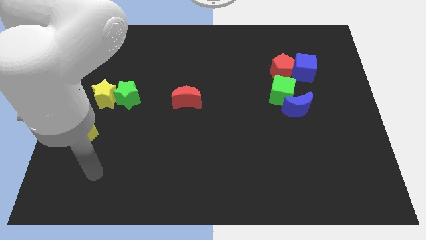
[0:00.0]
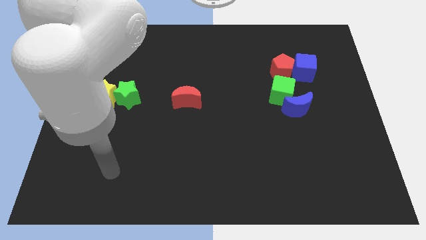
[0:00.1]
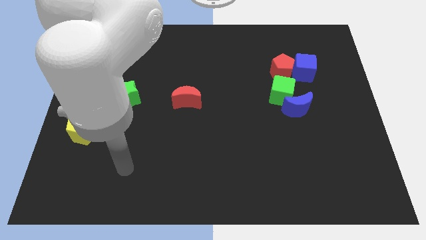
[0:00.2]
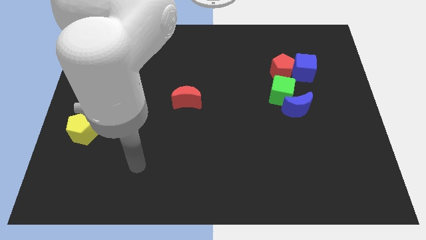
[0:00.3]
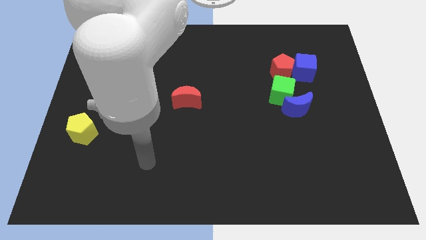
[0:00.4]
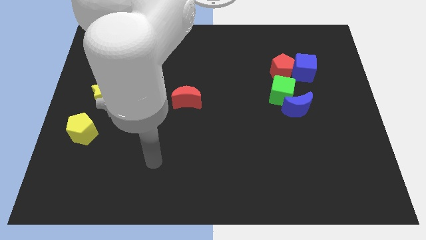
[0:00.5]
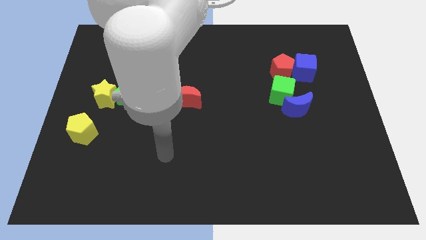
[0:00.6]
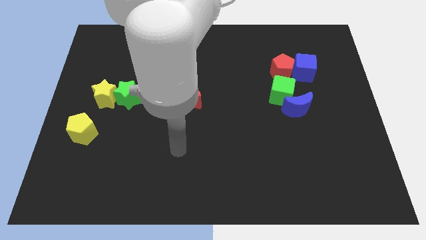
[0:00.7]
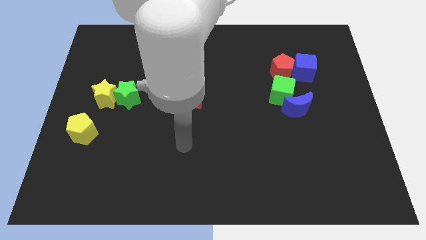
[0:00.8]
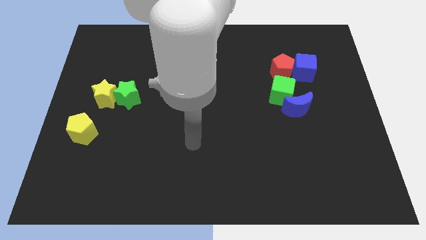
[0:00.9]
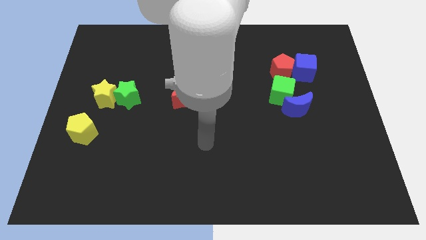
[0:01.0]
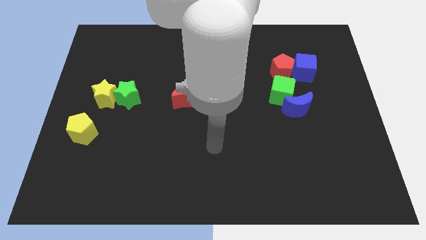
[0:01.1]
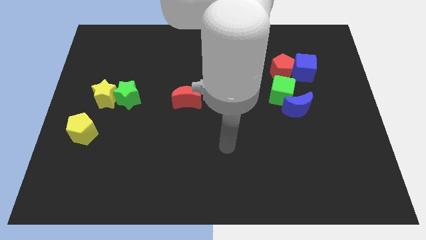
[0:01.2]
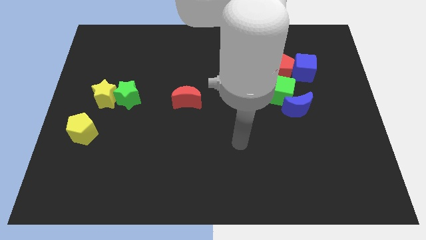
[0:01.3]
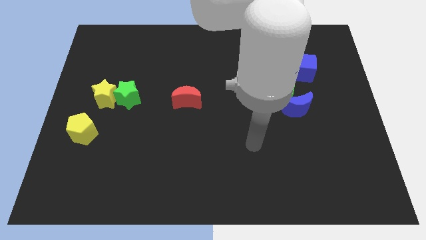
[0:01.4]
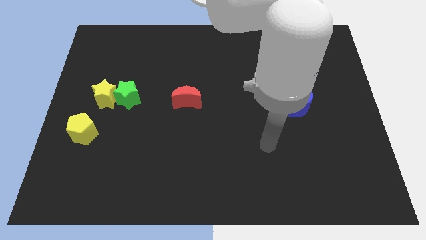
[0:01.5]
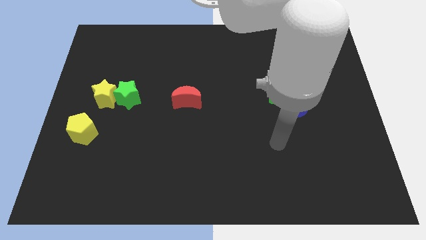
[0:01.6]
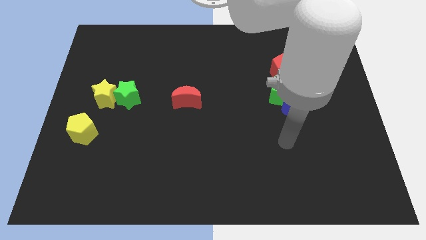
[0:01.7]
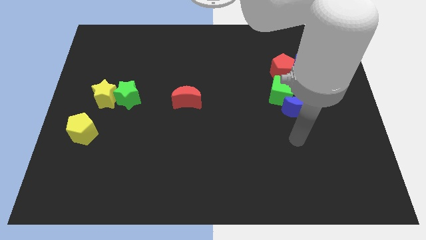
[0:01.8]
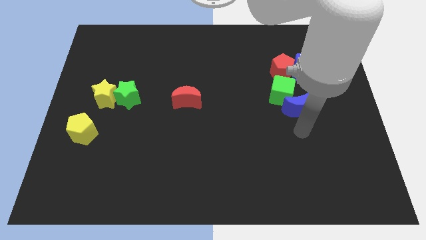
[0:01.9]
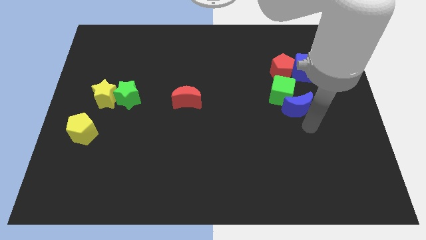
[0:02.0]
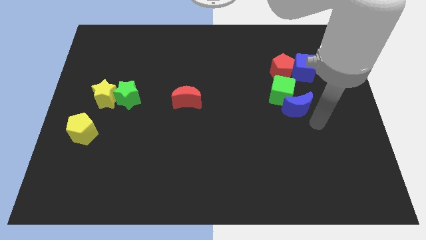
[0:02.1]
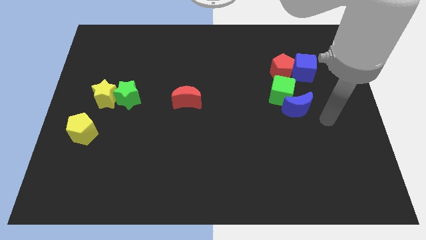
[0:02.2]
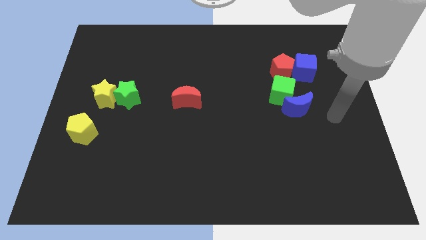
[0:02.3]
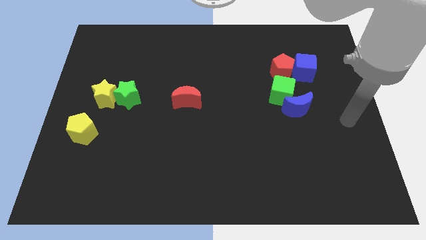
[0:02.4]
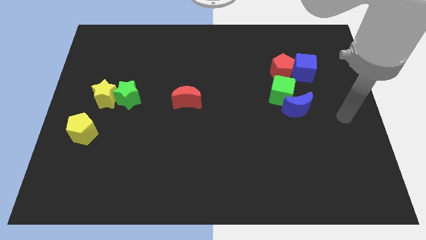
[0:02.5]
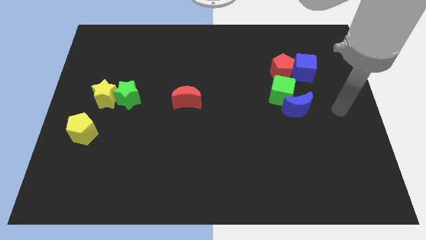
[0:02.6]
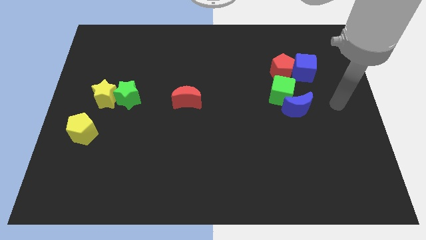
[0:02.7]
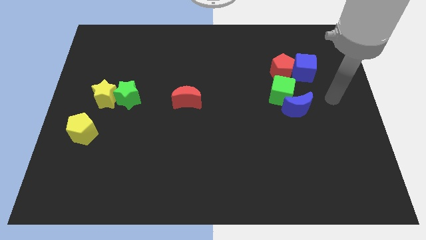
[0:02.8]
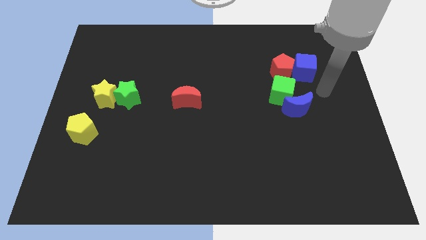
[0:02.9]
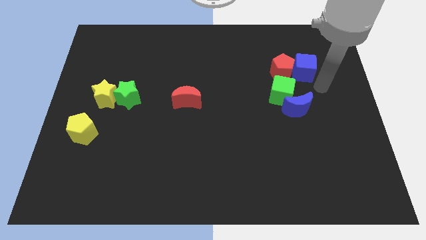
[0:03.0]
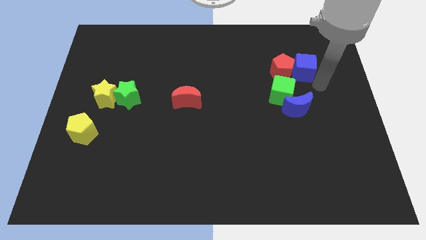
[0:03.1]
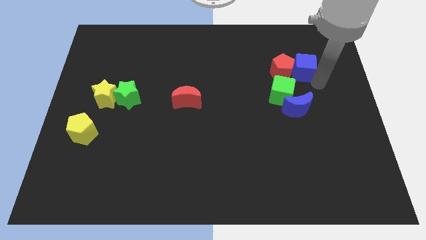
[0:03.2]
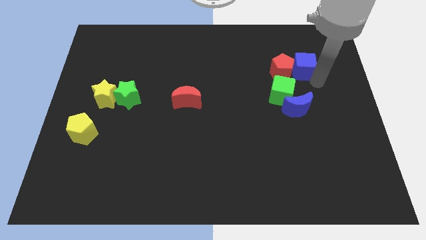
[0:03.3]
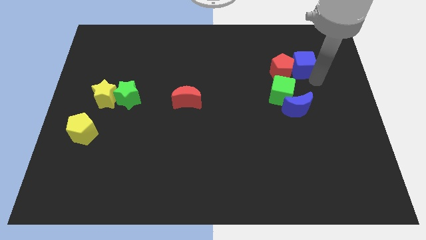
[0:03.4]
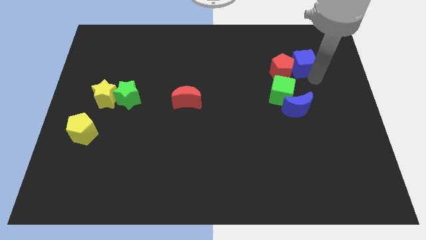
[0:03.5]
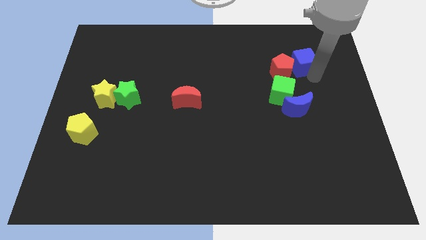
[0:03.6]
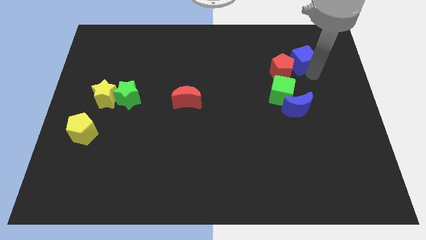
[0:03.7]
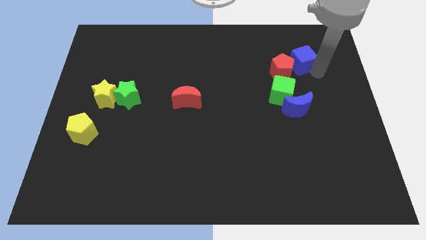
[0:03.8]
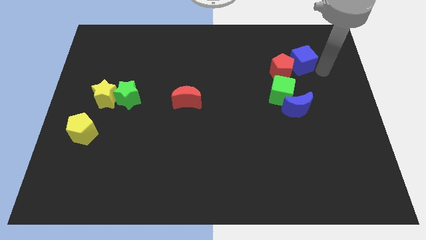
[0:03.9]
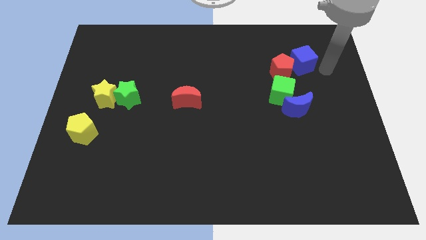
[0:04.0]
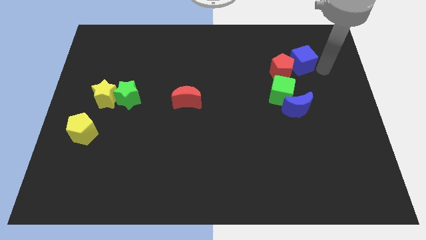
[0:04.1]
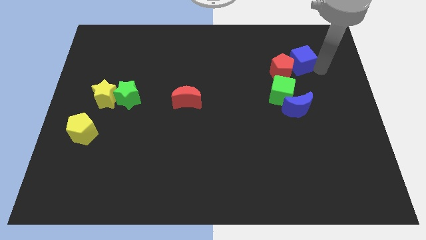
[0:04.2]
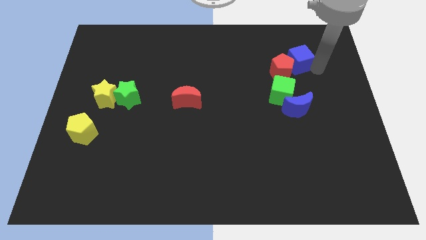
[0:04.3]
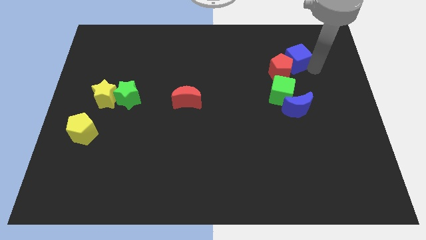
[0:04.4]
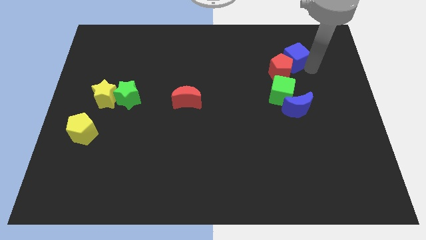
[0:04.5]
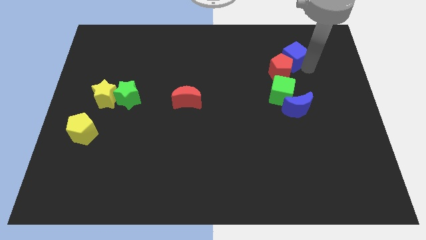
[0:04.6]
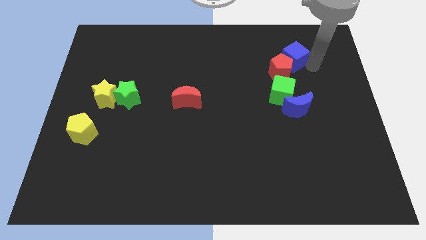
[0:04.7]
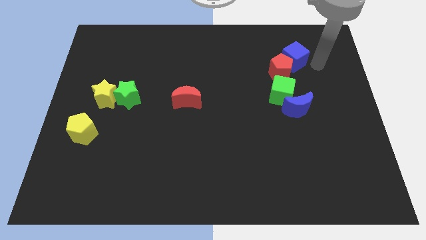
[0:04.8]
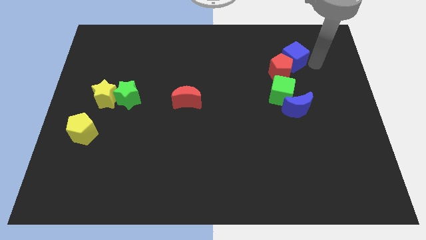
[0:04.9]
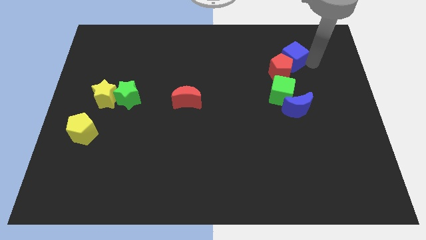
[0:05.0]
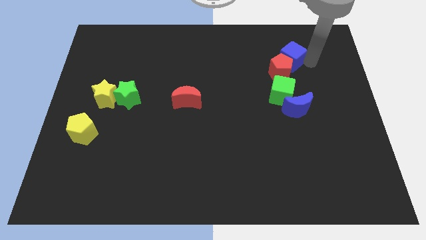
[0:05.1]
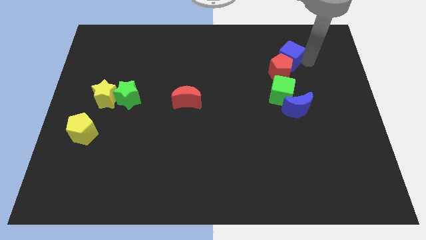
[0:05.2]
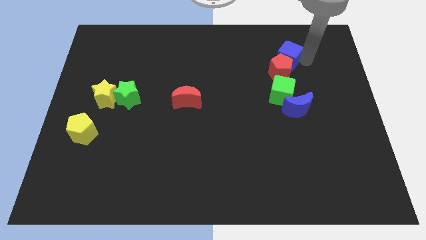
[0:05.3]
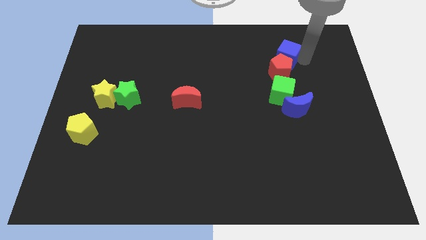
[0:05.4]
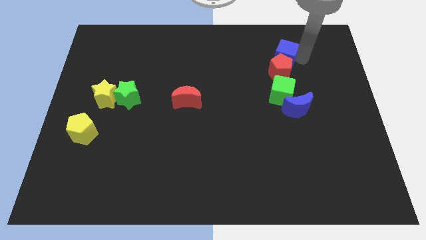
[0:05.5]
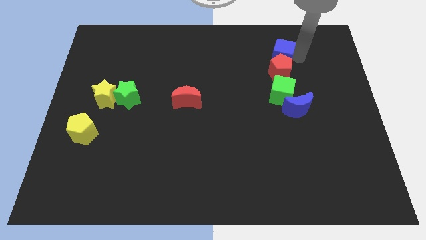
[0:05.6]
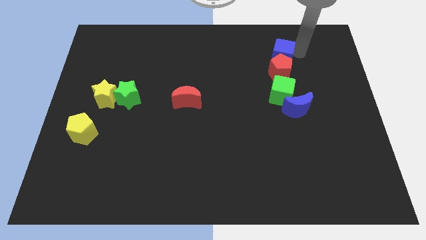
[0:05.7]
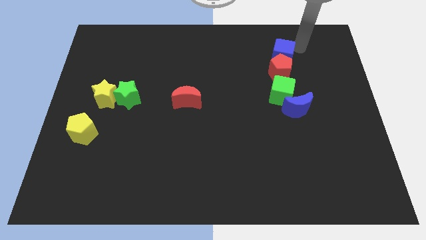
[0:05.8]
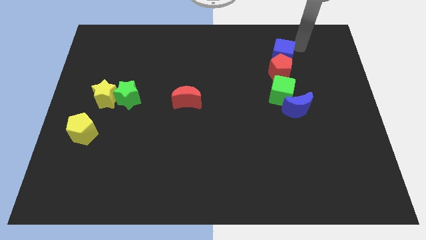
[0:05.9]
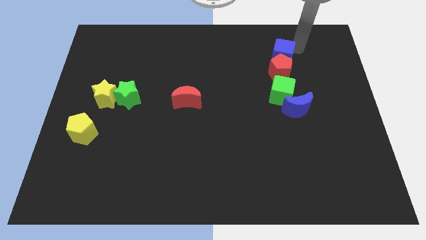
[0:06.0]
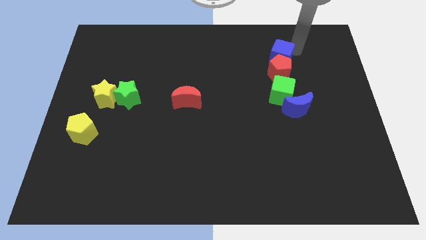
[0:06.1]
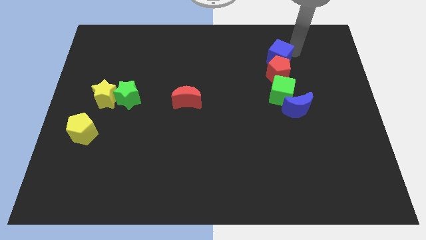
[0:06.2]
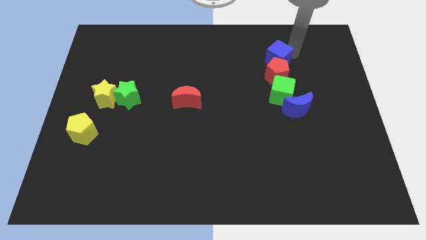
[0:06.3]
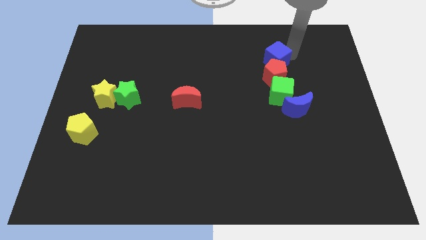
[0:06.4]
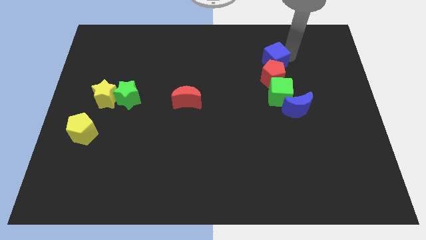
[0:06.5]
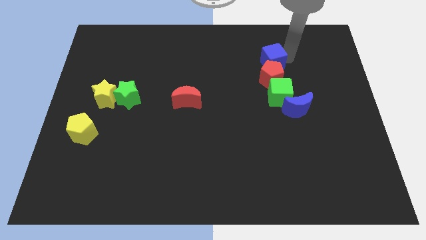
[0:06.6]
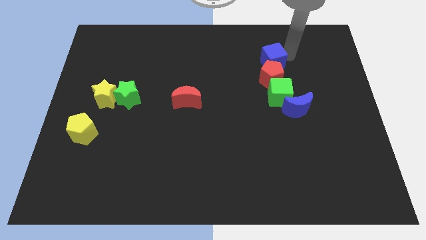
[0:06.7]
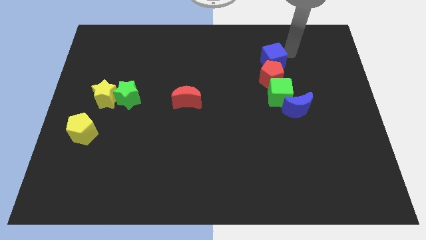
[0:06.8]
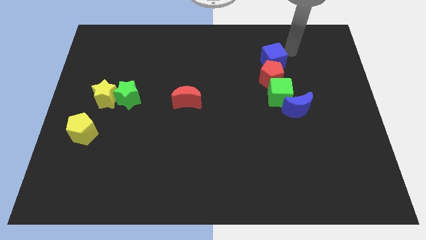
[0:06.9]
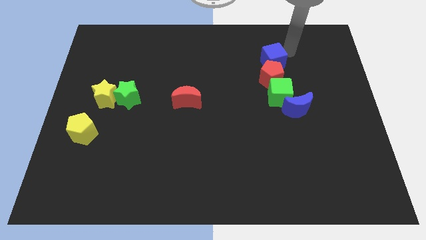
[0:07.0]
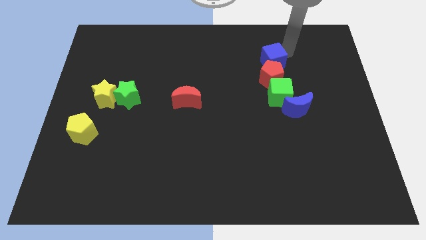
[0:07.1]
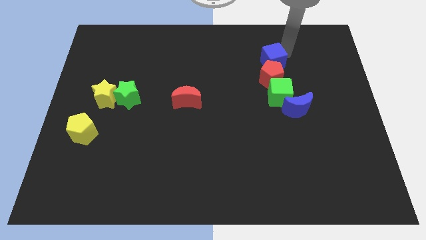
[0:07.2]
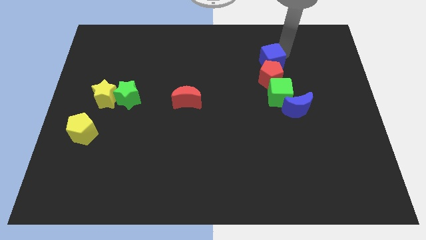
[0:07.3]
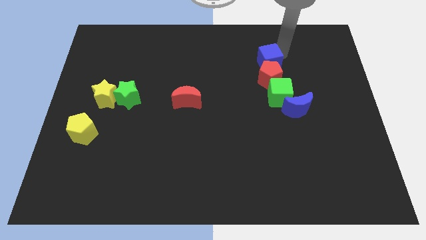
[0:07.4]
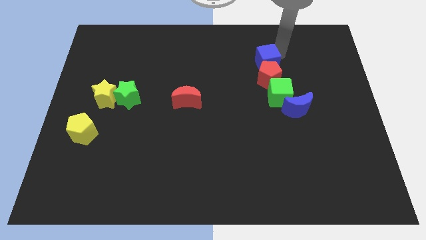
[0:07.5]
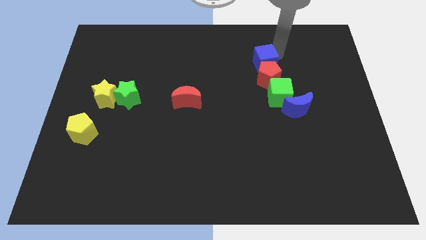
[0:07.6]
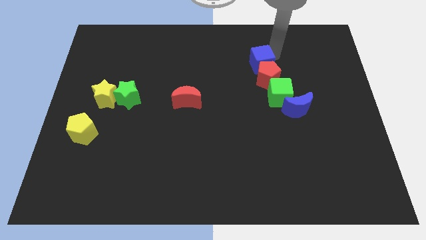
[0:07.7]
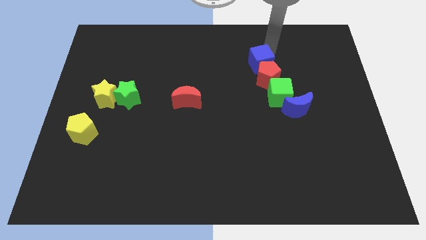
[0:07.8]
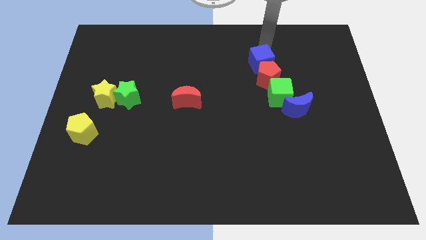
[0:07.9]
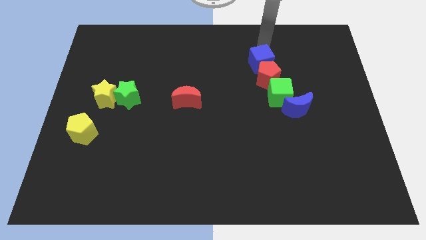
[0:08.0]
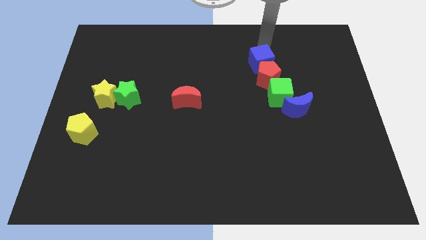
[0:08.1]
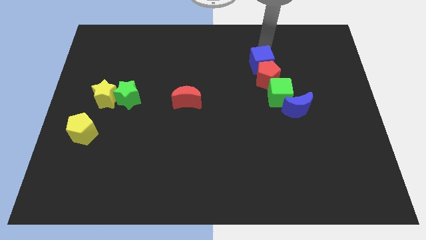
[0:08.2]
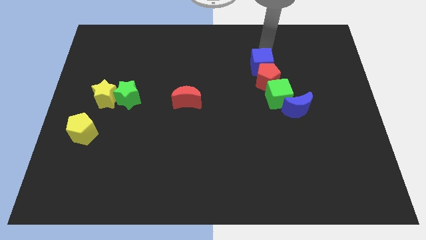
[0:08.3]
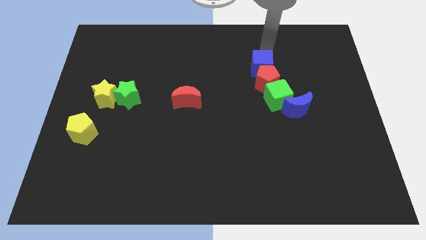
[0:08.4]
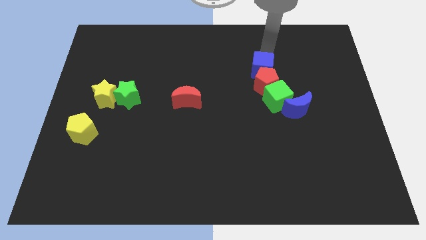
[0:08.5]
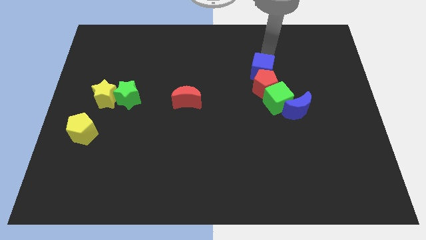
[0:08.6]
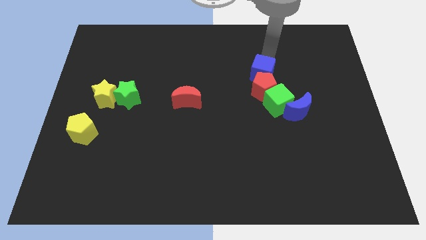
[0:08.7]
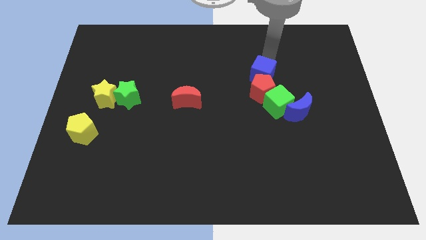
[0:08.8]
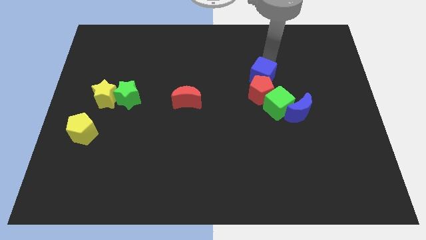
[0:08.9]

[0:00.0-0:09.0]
push the blue cube slightly downwards and to the left diagonally
